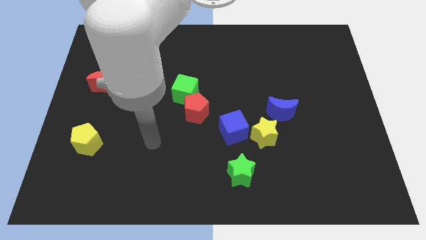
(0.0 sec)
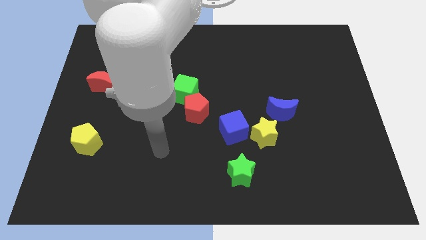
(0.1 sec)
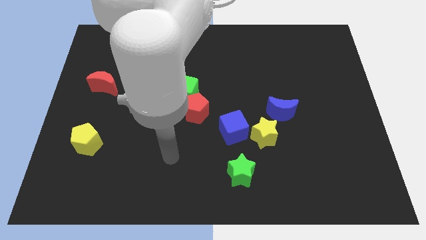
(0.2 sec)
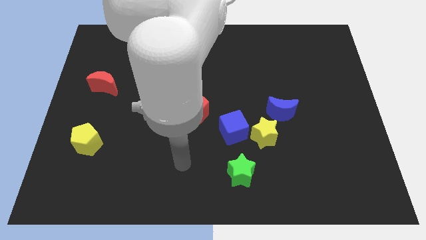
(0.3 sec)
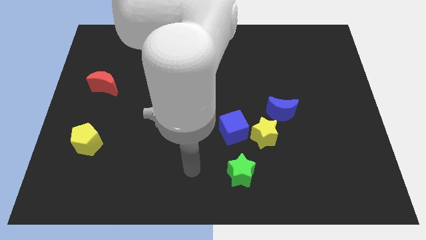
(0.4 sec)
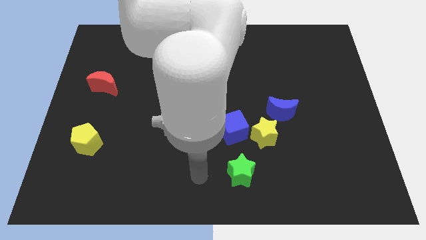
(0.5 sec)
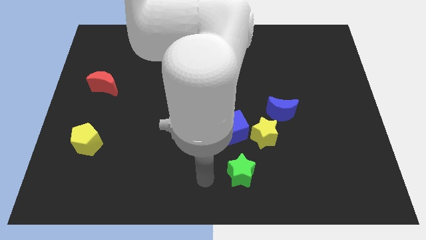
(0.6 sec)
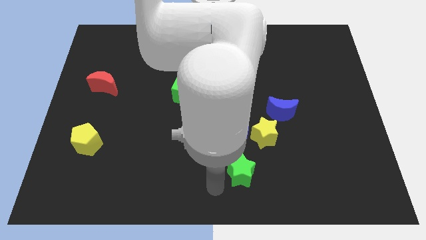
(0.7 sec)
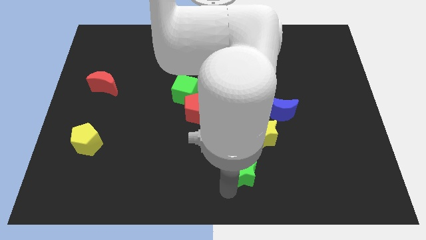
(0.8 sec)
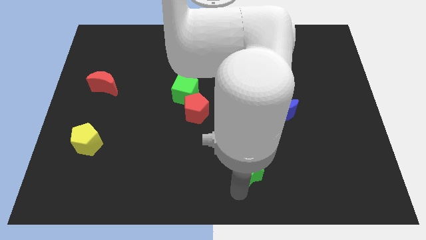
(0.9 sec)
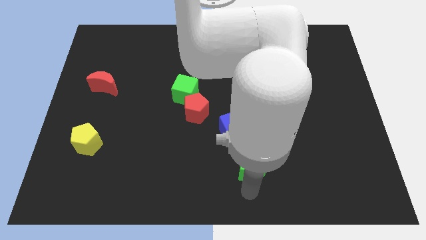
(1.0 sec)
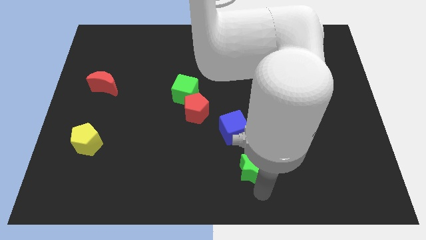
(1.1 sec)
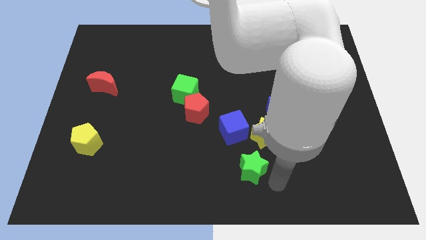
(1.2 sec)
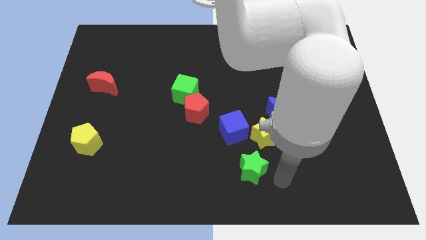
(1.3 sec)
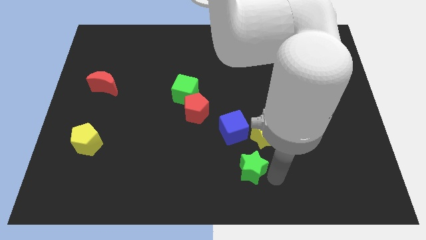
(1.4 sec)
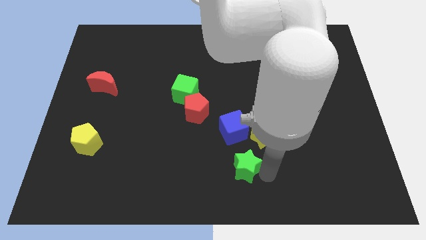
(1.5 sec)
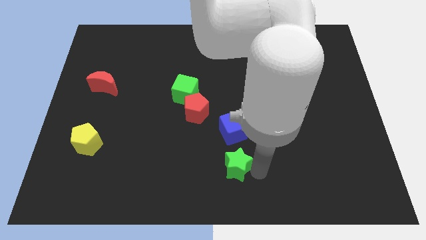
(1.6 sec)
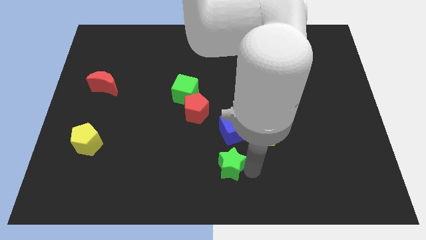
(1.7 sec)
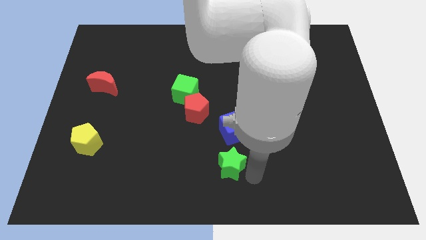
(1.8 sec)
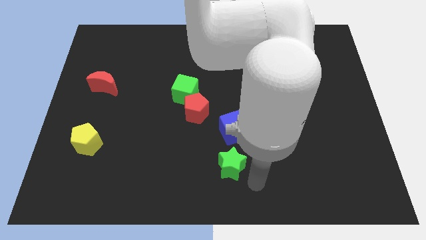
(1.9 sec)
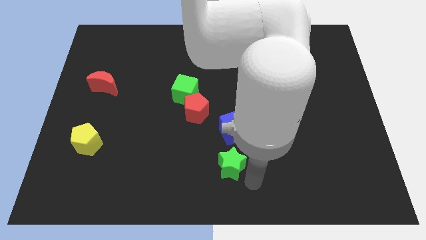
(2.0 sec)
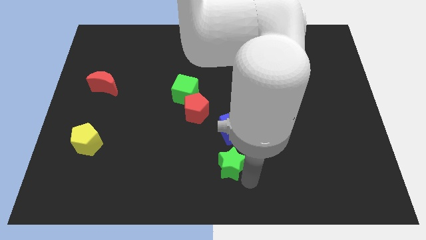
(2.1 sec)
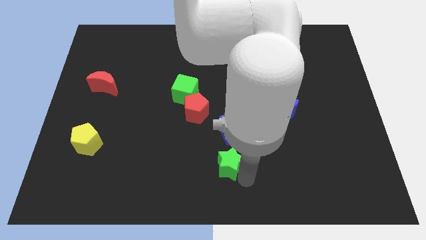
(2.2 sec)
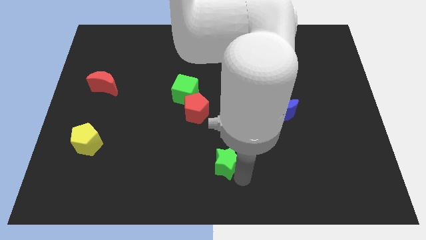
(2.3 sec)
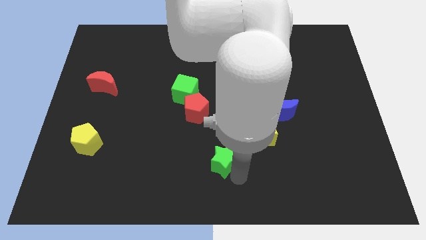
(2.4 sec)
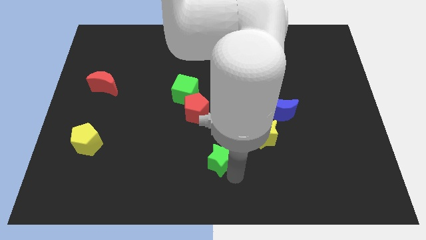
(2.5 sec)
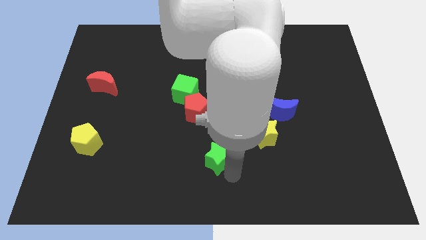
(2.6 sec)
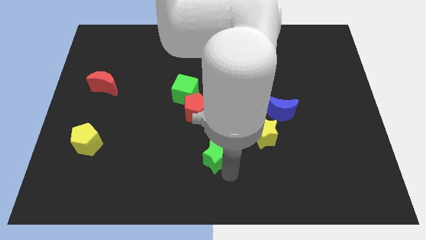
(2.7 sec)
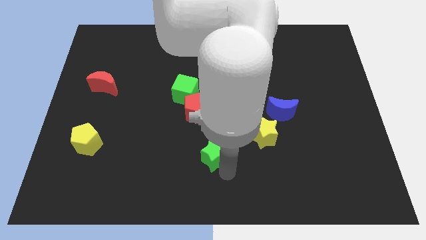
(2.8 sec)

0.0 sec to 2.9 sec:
slide the green star a little upwards and then to the left

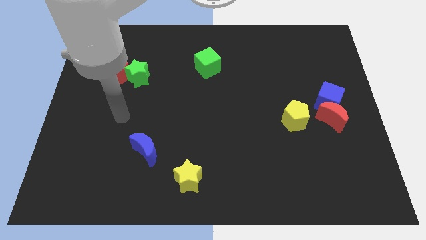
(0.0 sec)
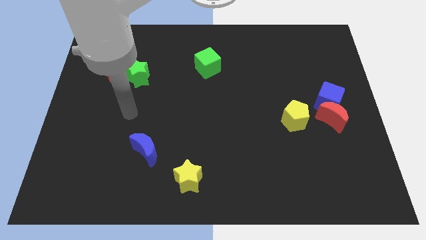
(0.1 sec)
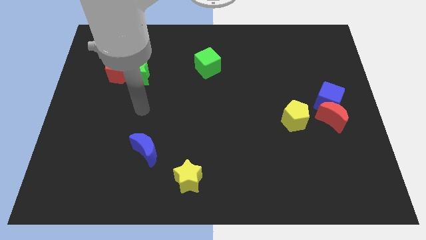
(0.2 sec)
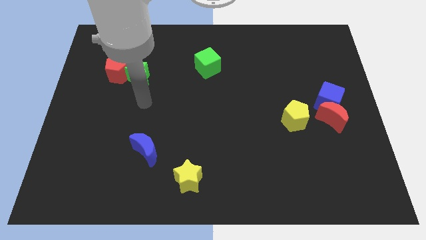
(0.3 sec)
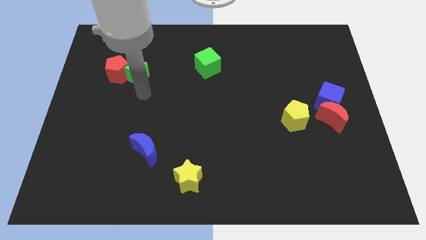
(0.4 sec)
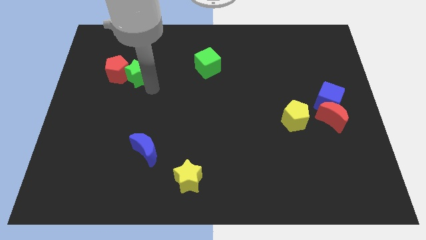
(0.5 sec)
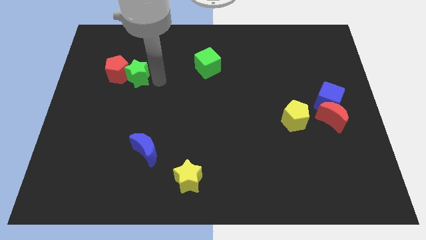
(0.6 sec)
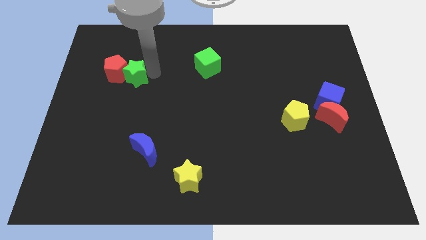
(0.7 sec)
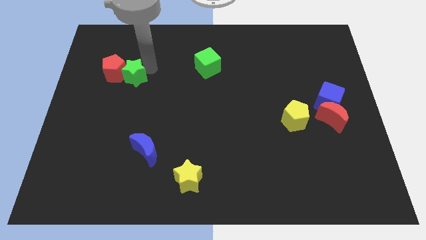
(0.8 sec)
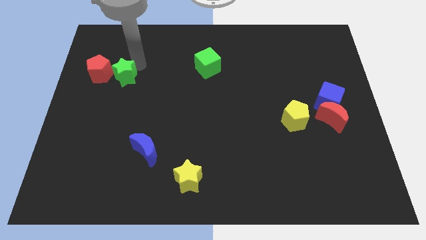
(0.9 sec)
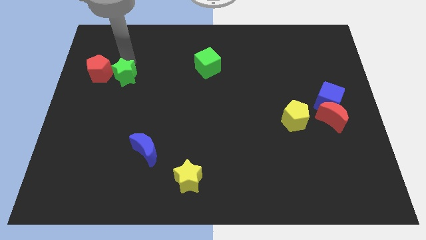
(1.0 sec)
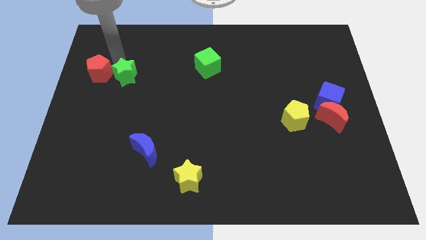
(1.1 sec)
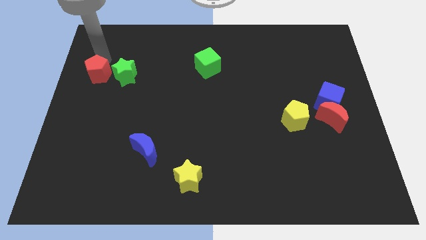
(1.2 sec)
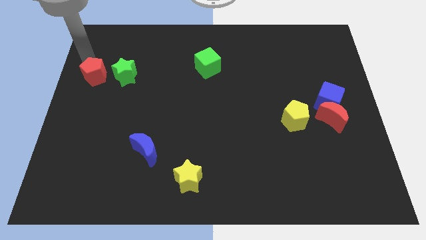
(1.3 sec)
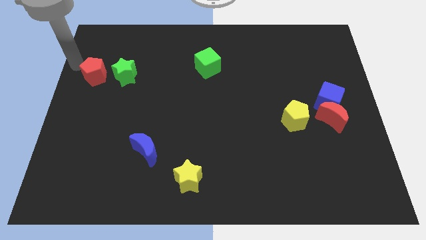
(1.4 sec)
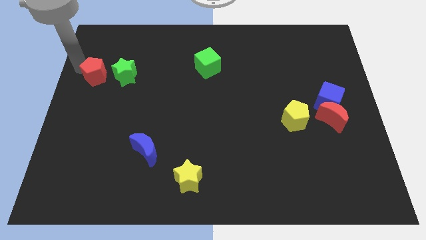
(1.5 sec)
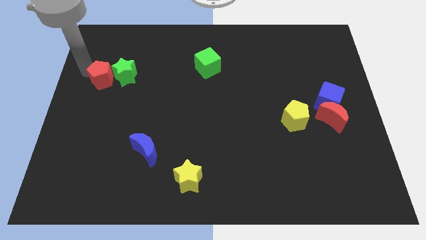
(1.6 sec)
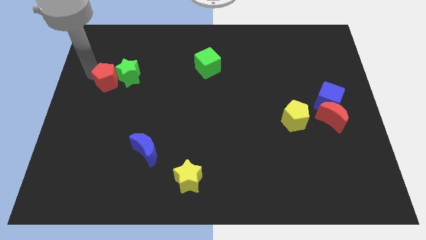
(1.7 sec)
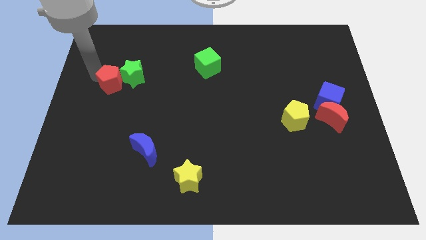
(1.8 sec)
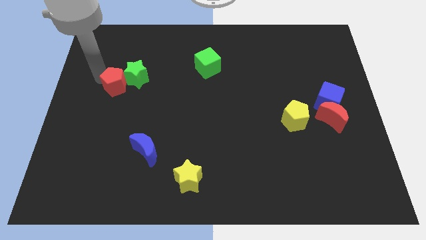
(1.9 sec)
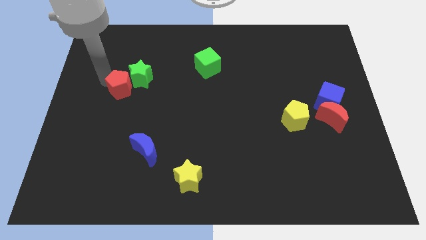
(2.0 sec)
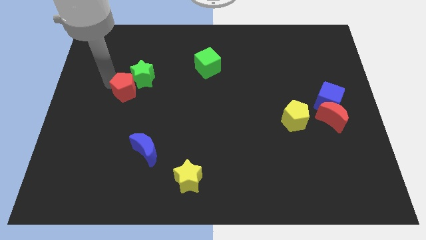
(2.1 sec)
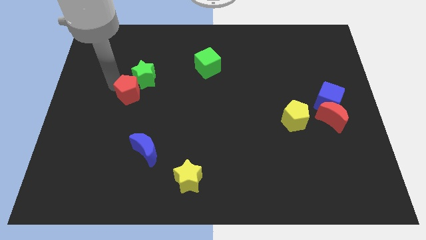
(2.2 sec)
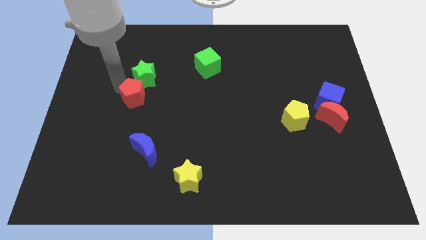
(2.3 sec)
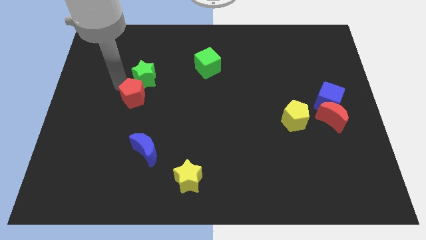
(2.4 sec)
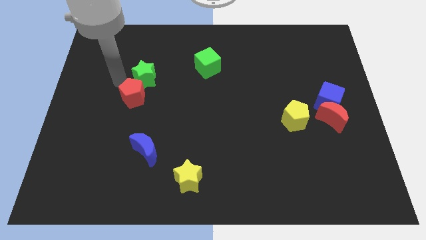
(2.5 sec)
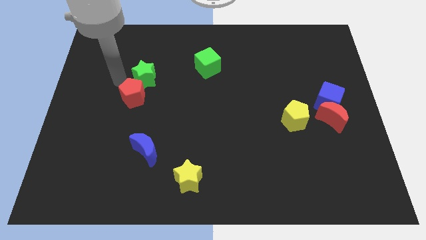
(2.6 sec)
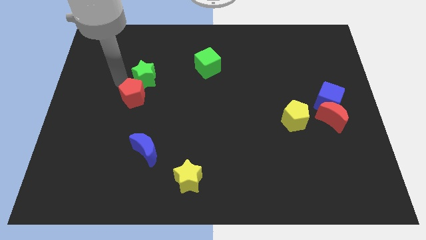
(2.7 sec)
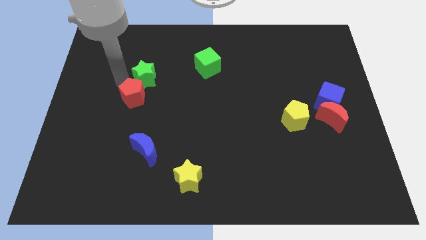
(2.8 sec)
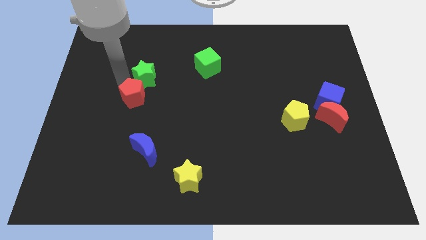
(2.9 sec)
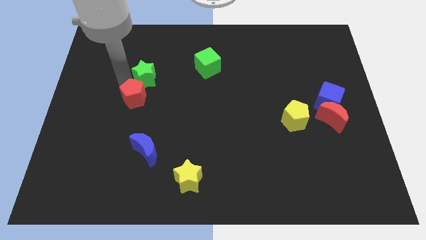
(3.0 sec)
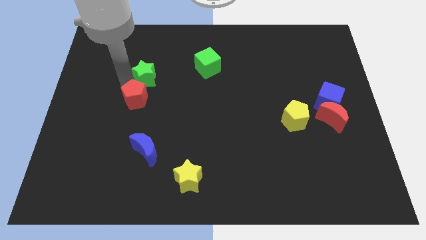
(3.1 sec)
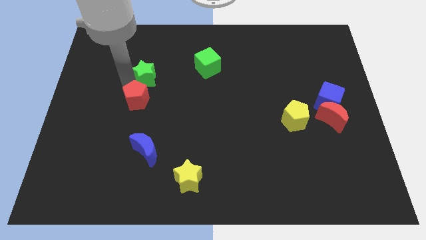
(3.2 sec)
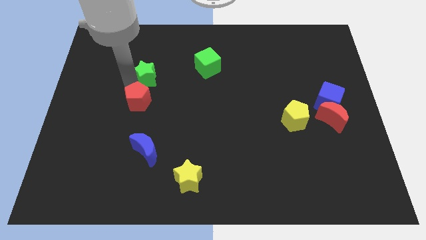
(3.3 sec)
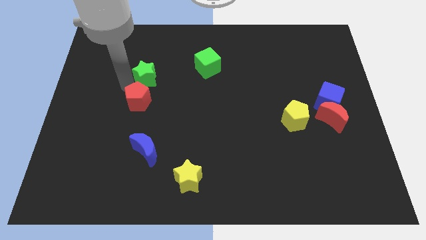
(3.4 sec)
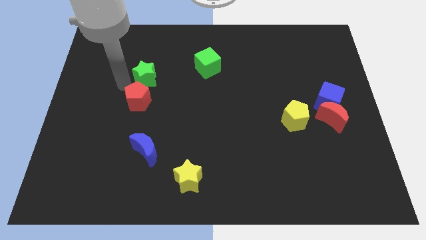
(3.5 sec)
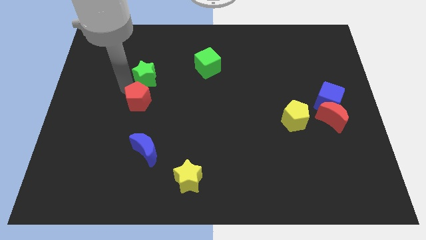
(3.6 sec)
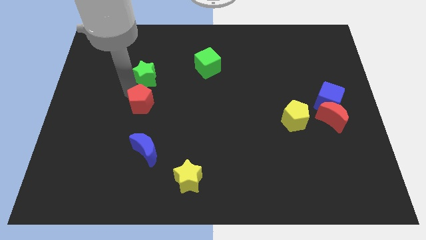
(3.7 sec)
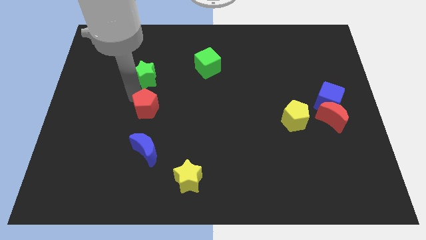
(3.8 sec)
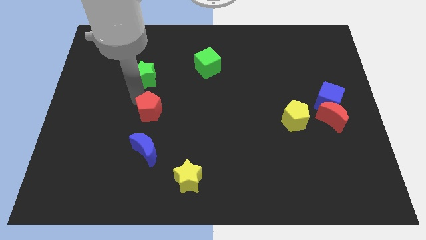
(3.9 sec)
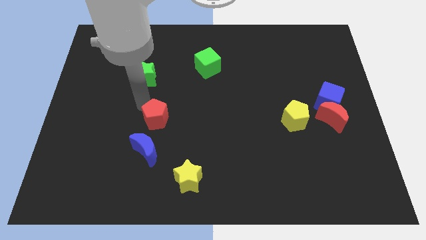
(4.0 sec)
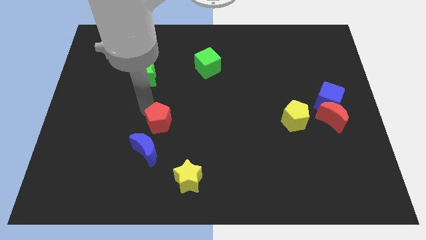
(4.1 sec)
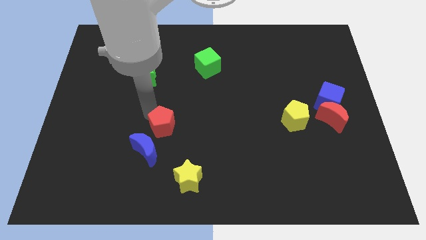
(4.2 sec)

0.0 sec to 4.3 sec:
push the red pentagon downwards and to the right diagonally

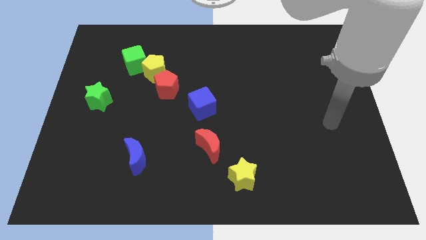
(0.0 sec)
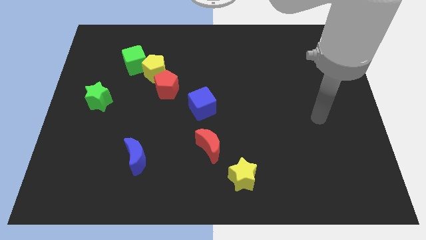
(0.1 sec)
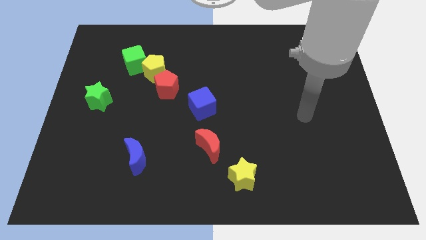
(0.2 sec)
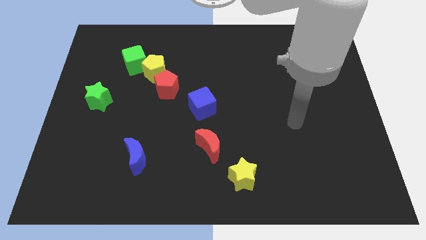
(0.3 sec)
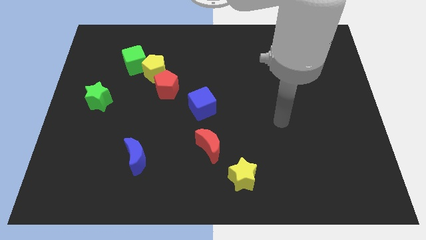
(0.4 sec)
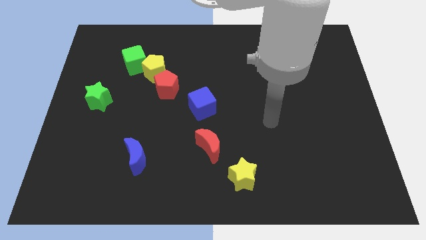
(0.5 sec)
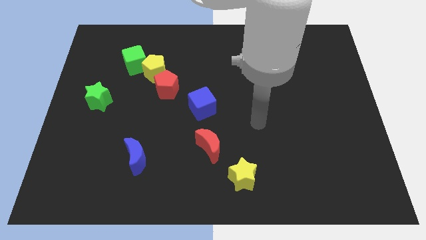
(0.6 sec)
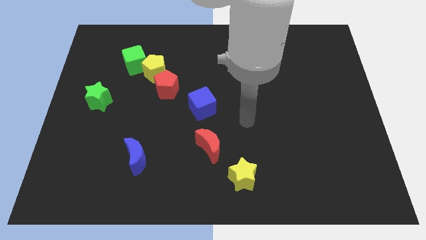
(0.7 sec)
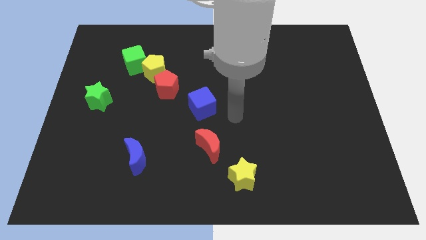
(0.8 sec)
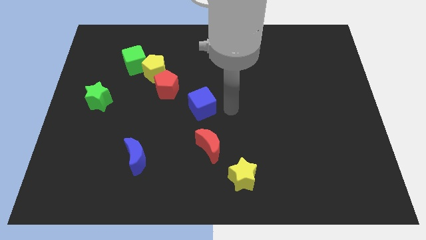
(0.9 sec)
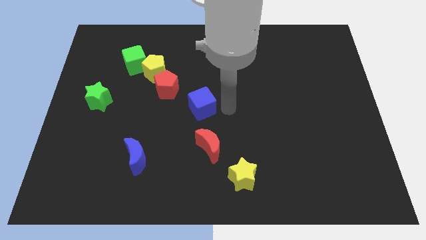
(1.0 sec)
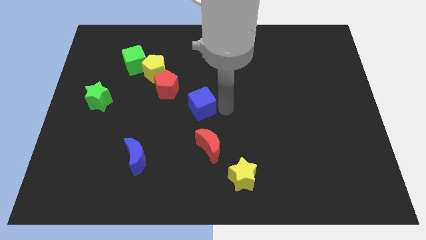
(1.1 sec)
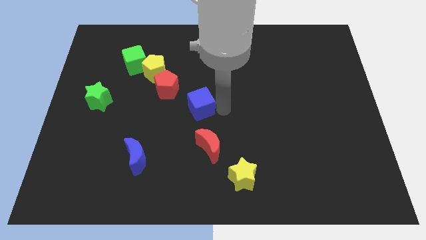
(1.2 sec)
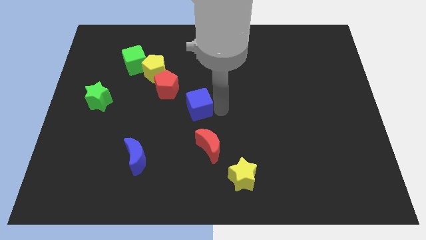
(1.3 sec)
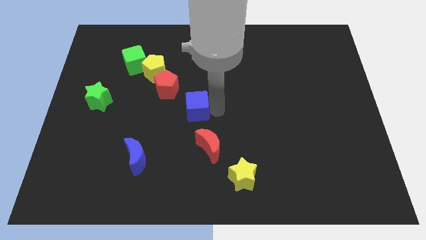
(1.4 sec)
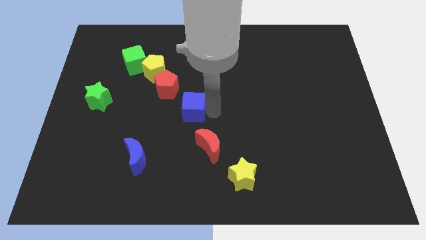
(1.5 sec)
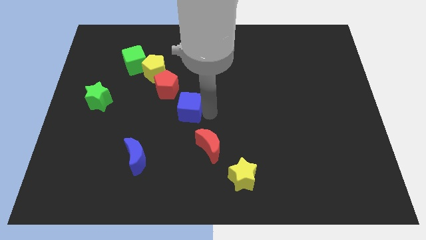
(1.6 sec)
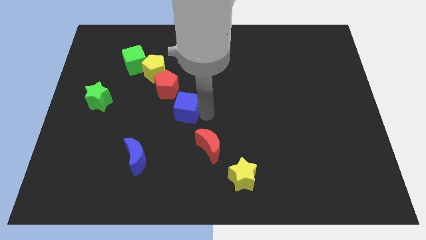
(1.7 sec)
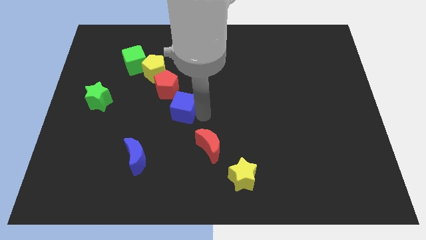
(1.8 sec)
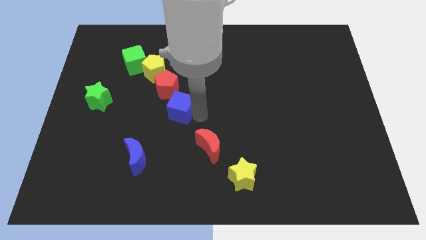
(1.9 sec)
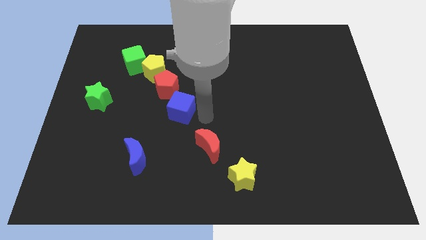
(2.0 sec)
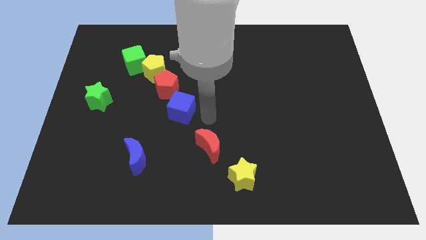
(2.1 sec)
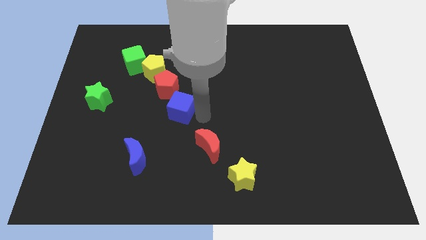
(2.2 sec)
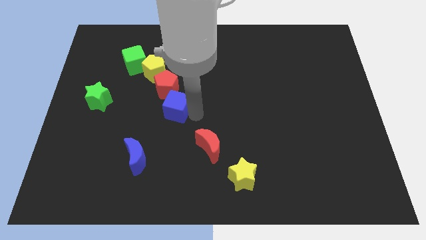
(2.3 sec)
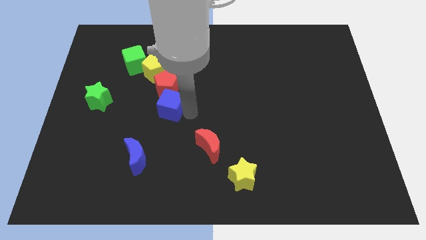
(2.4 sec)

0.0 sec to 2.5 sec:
slide the blue cube a bit to the left
